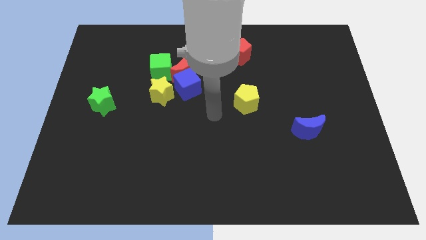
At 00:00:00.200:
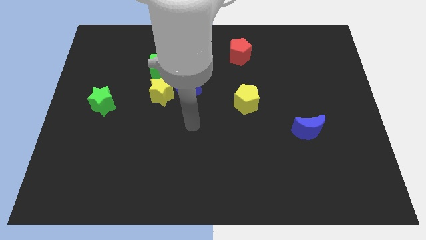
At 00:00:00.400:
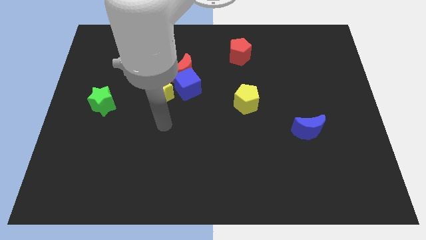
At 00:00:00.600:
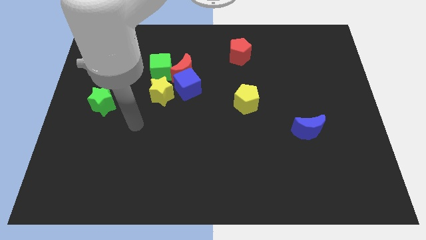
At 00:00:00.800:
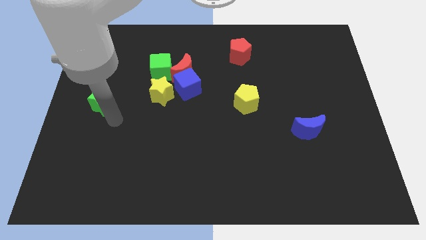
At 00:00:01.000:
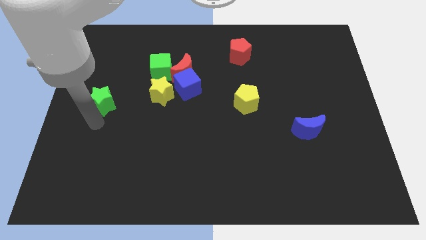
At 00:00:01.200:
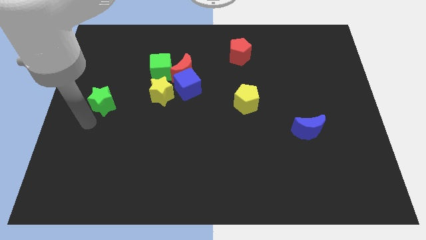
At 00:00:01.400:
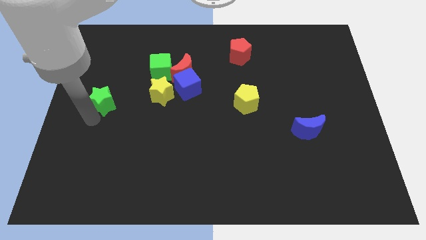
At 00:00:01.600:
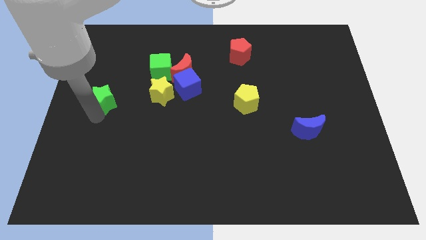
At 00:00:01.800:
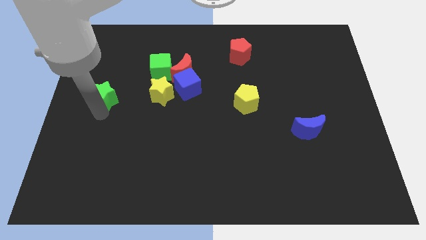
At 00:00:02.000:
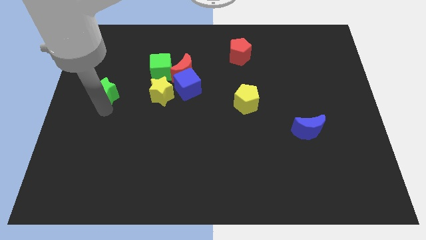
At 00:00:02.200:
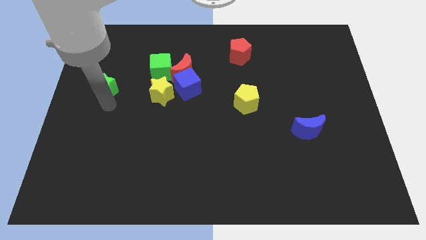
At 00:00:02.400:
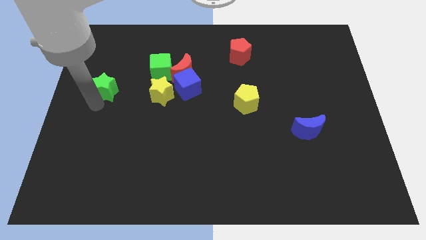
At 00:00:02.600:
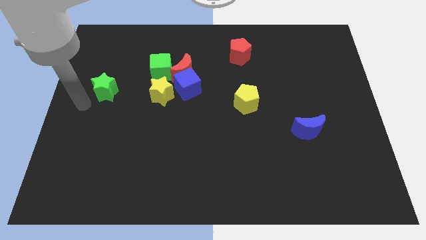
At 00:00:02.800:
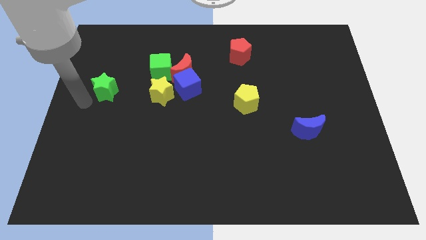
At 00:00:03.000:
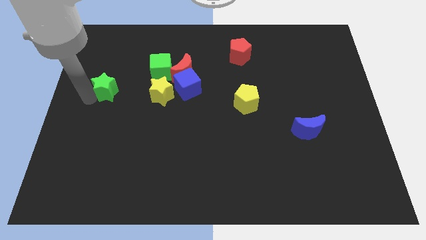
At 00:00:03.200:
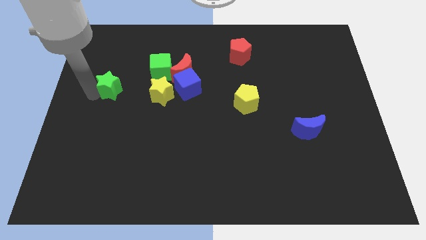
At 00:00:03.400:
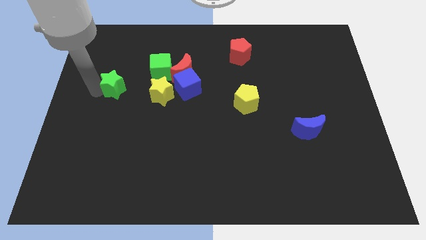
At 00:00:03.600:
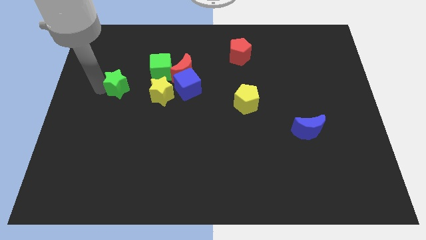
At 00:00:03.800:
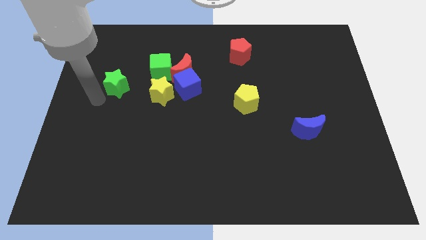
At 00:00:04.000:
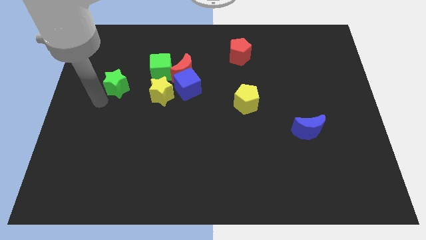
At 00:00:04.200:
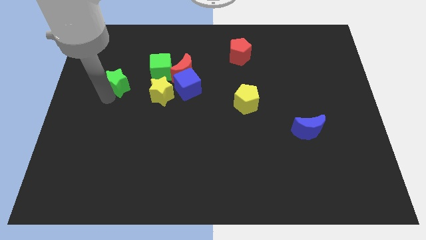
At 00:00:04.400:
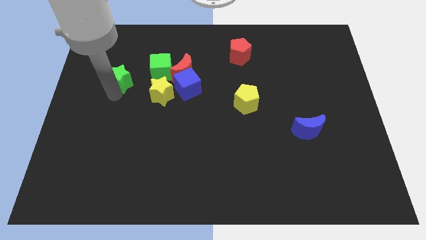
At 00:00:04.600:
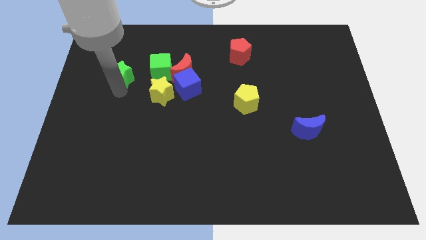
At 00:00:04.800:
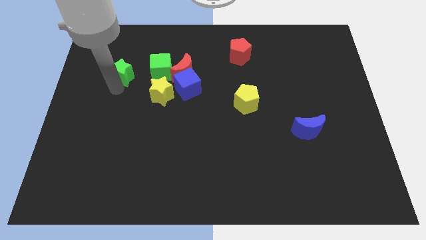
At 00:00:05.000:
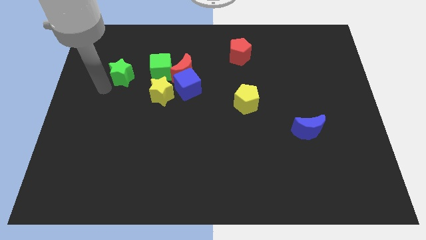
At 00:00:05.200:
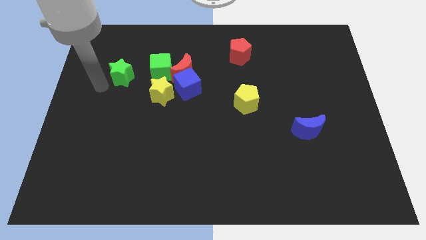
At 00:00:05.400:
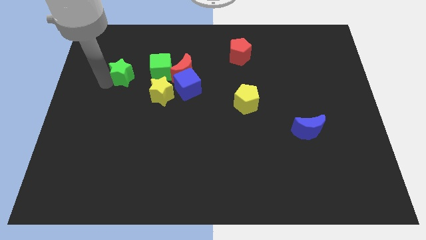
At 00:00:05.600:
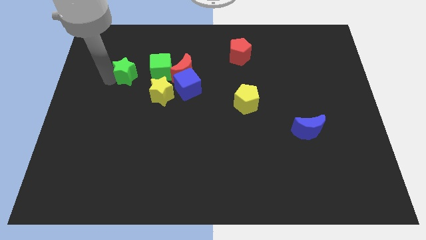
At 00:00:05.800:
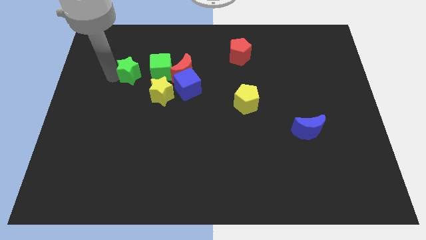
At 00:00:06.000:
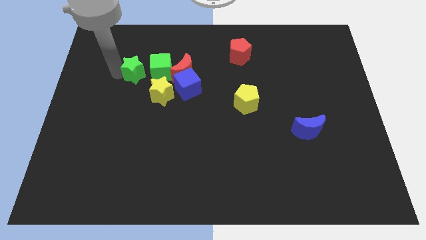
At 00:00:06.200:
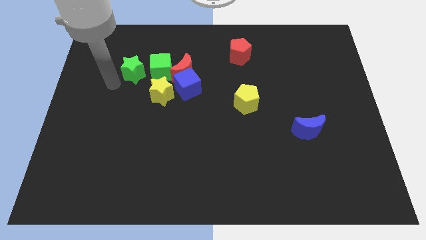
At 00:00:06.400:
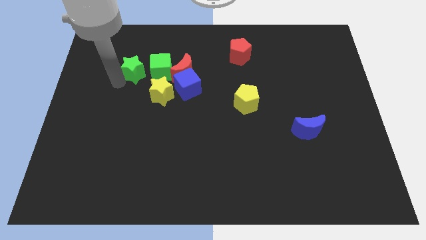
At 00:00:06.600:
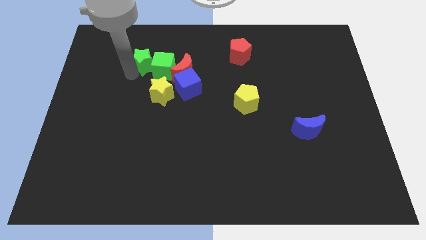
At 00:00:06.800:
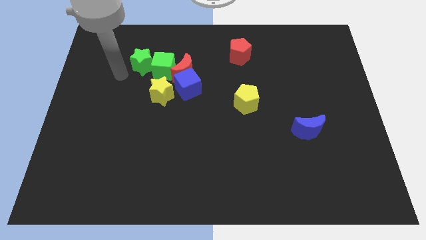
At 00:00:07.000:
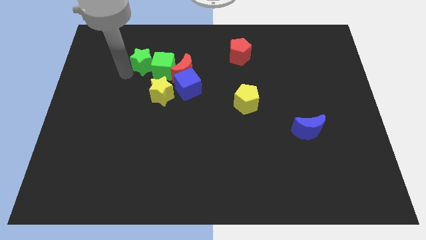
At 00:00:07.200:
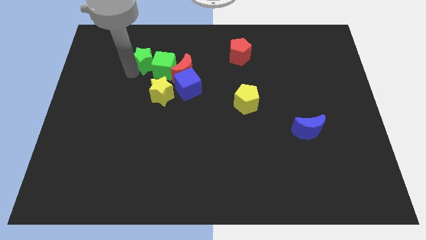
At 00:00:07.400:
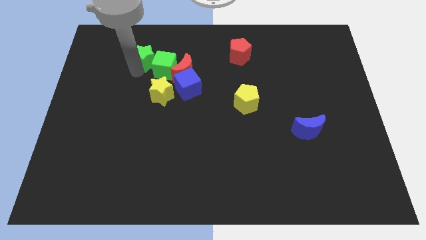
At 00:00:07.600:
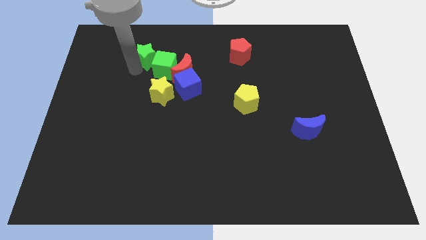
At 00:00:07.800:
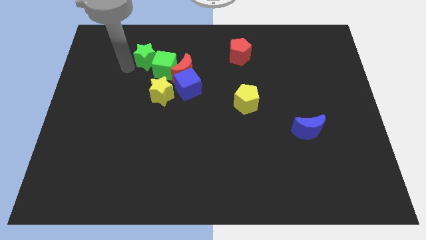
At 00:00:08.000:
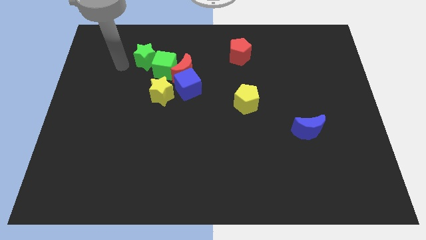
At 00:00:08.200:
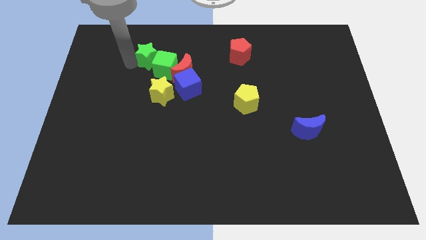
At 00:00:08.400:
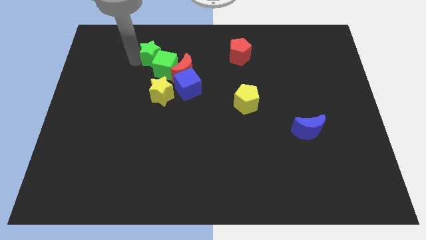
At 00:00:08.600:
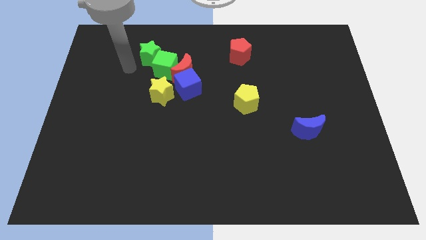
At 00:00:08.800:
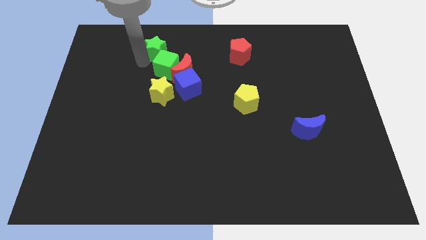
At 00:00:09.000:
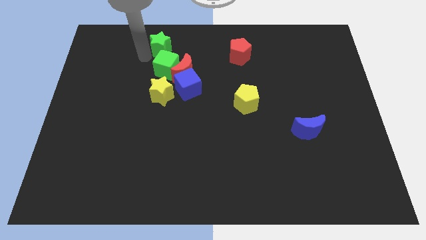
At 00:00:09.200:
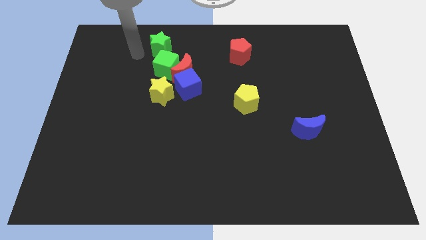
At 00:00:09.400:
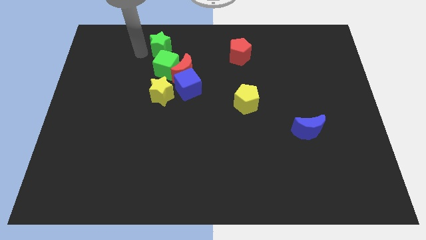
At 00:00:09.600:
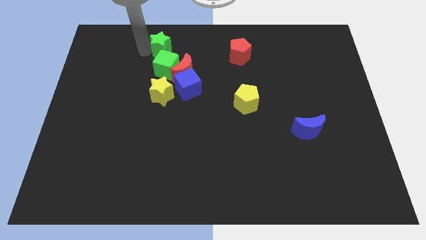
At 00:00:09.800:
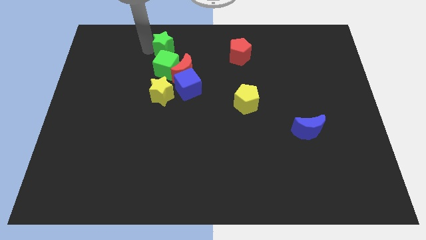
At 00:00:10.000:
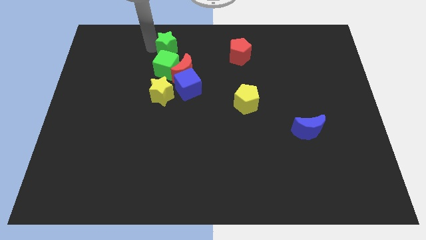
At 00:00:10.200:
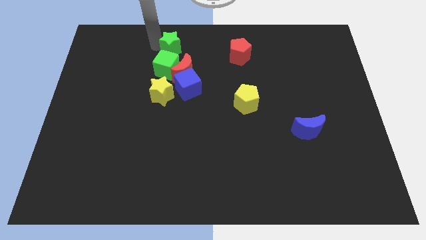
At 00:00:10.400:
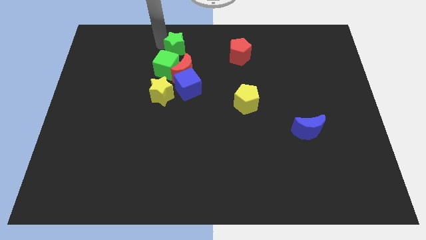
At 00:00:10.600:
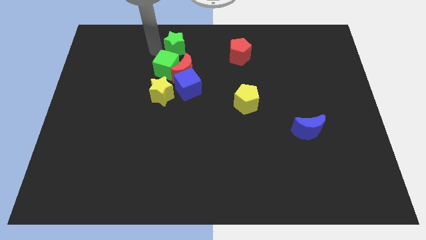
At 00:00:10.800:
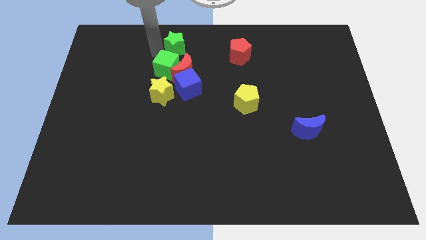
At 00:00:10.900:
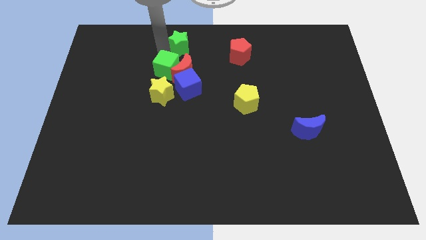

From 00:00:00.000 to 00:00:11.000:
push the green star to the top side

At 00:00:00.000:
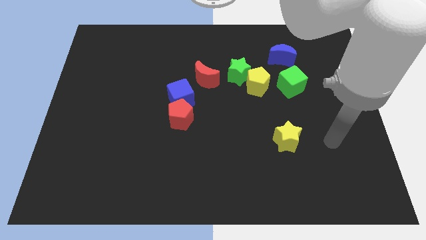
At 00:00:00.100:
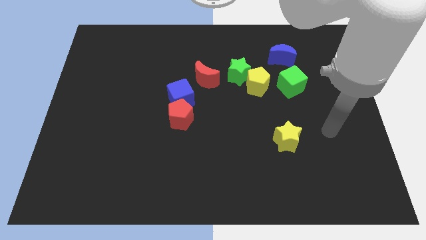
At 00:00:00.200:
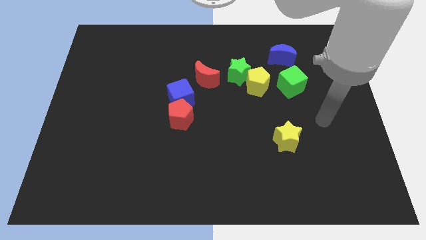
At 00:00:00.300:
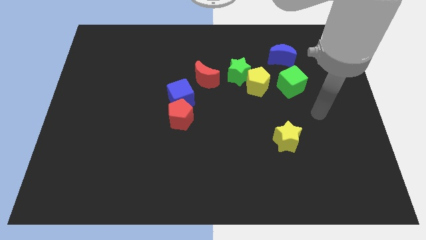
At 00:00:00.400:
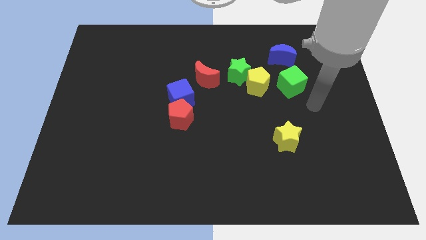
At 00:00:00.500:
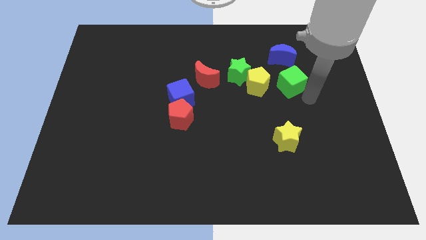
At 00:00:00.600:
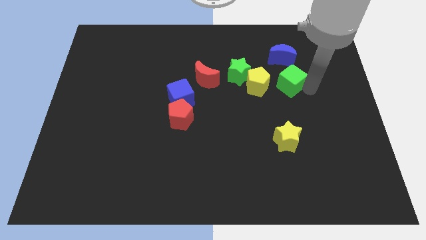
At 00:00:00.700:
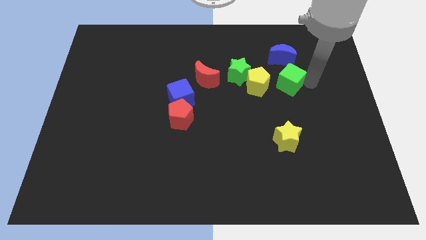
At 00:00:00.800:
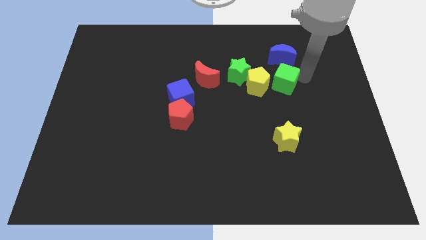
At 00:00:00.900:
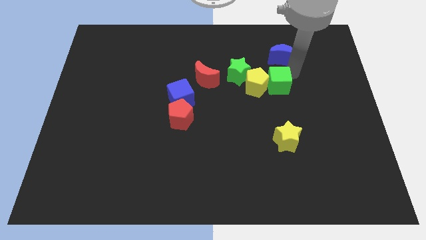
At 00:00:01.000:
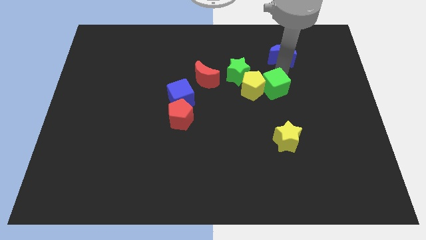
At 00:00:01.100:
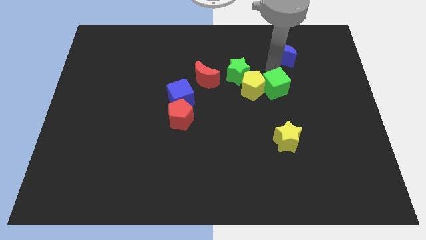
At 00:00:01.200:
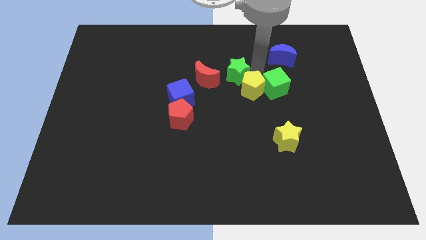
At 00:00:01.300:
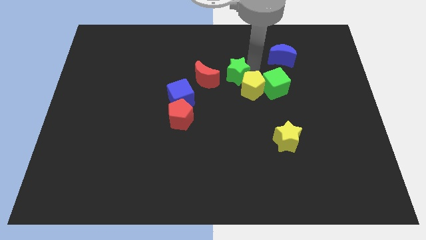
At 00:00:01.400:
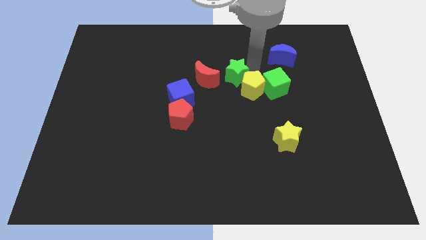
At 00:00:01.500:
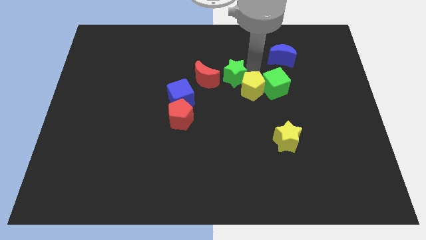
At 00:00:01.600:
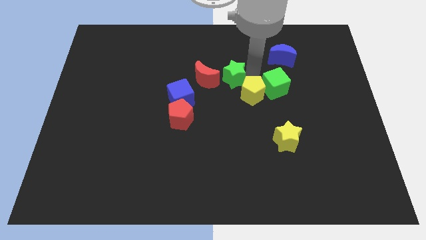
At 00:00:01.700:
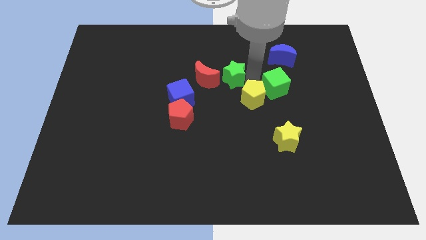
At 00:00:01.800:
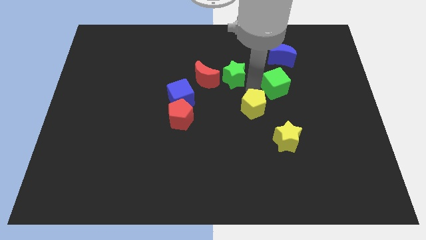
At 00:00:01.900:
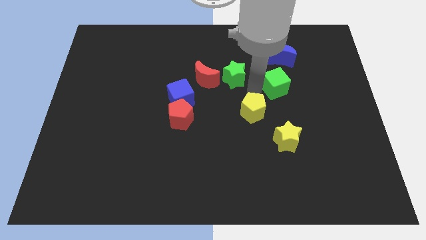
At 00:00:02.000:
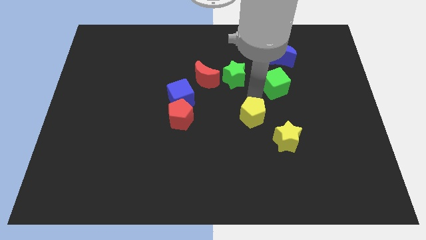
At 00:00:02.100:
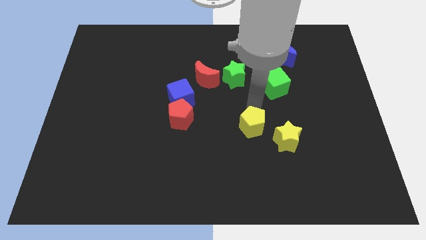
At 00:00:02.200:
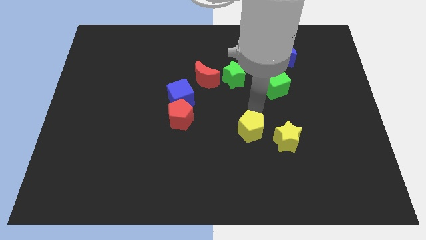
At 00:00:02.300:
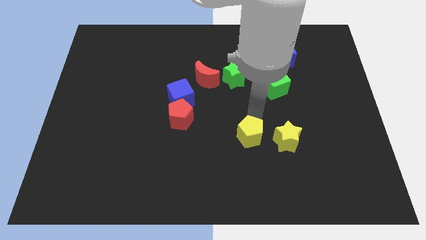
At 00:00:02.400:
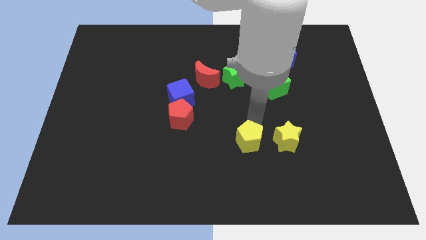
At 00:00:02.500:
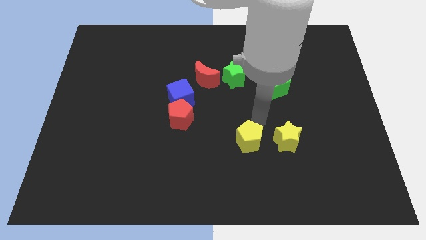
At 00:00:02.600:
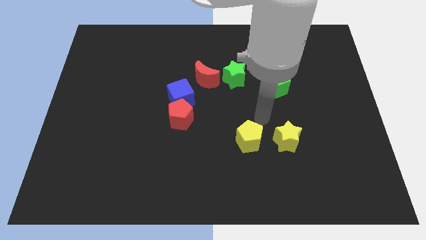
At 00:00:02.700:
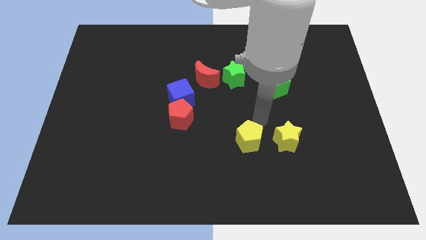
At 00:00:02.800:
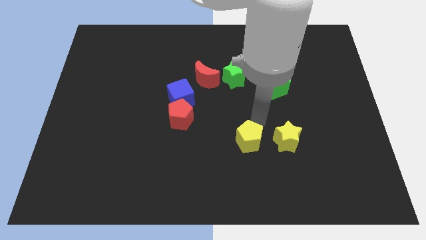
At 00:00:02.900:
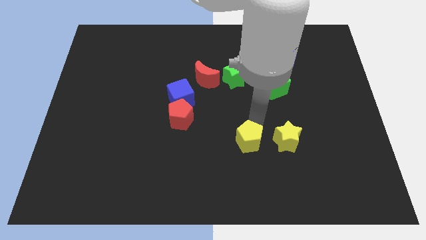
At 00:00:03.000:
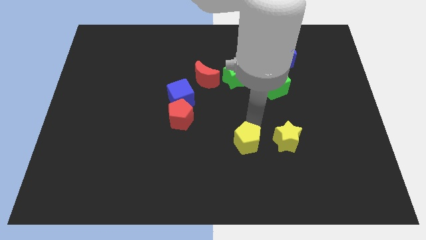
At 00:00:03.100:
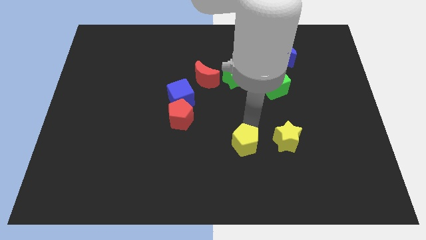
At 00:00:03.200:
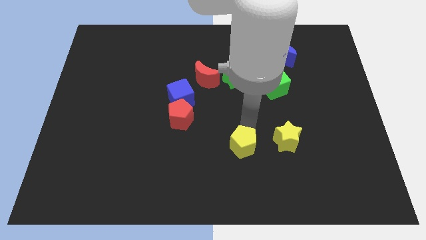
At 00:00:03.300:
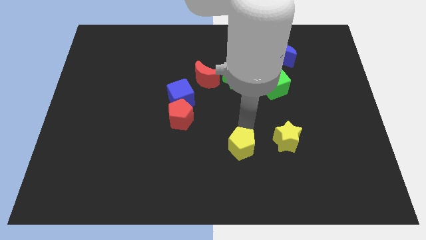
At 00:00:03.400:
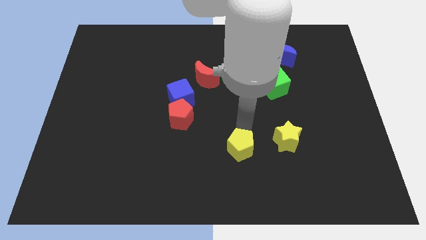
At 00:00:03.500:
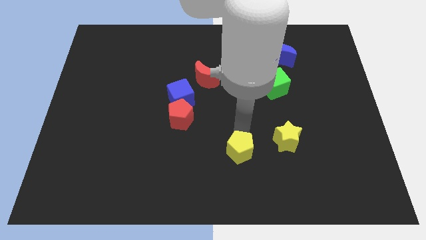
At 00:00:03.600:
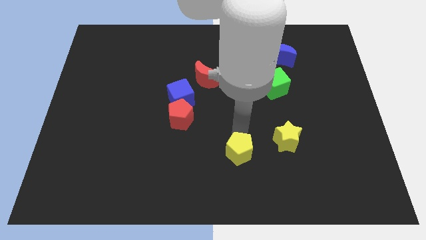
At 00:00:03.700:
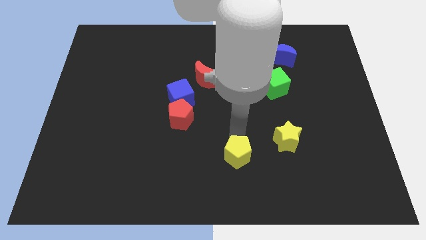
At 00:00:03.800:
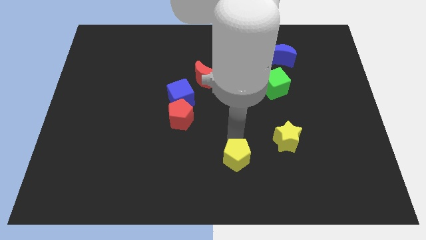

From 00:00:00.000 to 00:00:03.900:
slide the yellow pentagon to the bottom side
